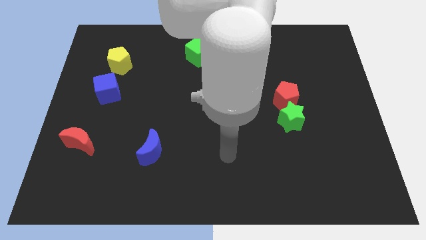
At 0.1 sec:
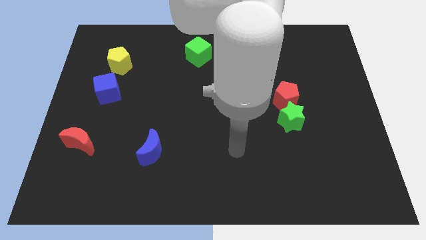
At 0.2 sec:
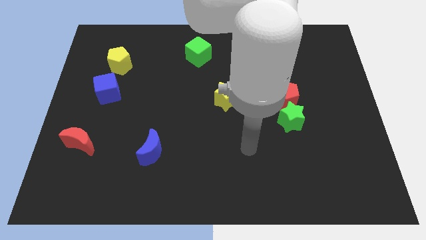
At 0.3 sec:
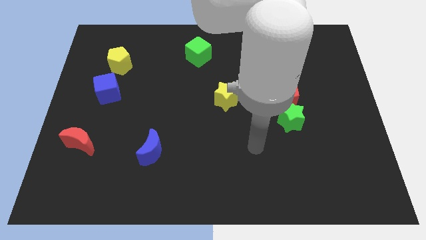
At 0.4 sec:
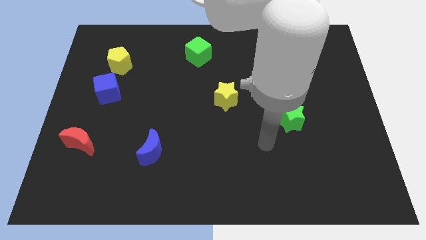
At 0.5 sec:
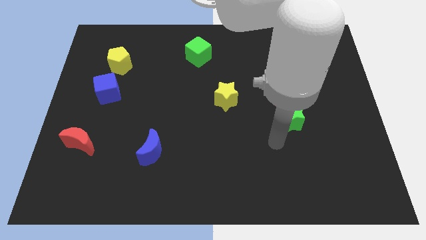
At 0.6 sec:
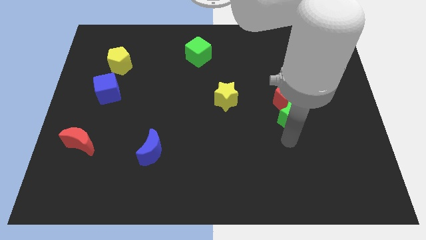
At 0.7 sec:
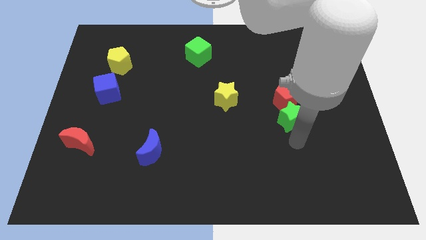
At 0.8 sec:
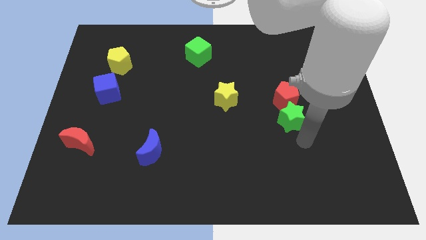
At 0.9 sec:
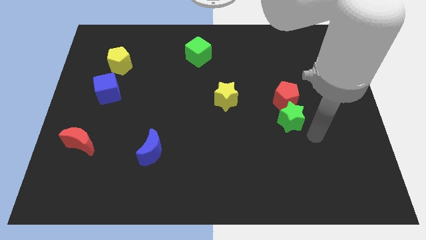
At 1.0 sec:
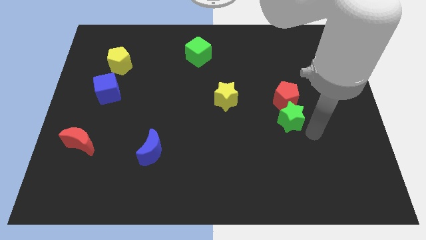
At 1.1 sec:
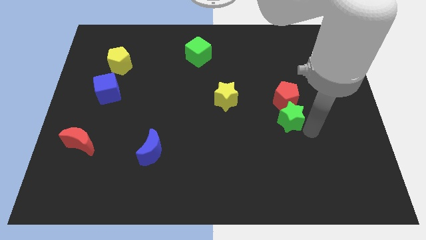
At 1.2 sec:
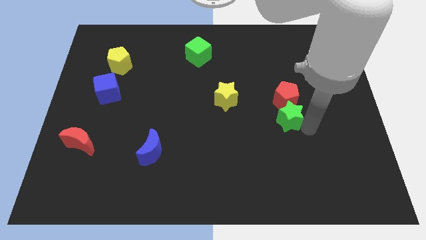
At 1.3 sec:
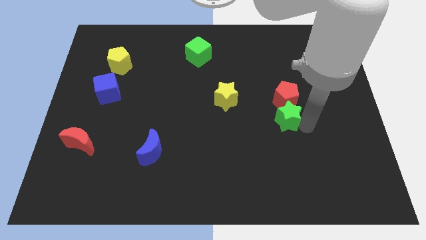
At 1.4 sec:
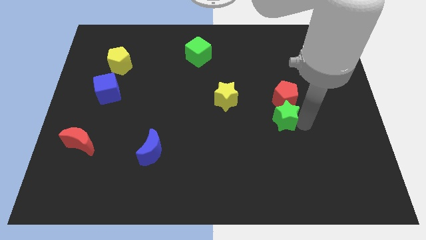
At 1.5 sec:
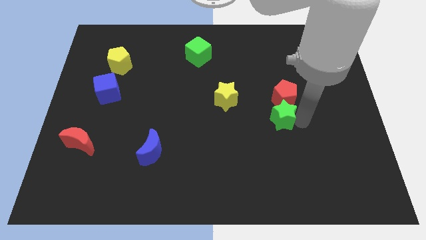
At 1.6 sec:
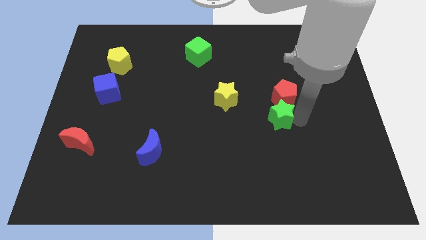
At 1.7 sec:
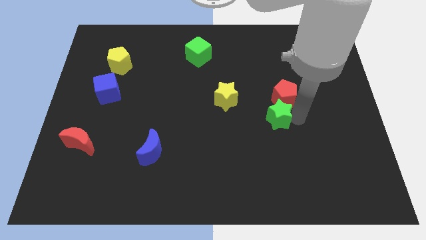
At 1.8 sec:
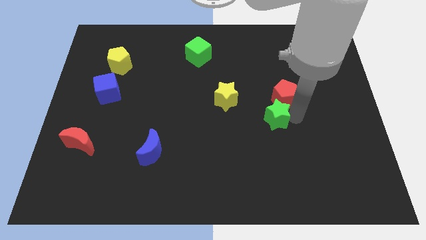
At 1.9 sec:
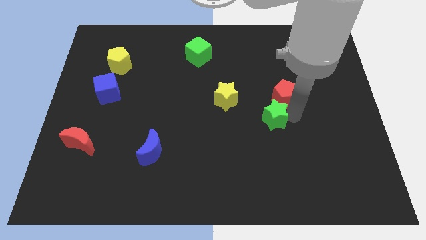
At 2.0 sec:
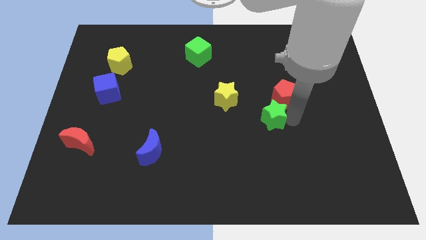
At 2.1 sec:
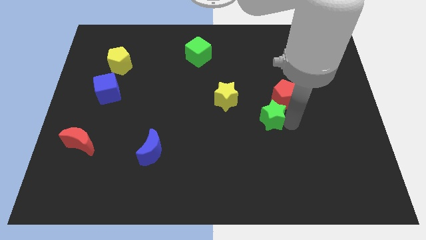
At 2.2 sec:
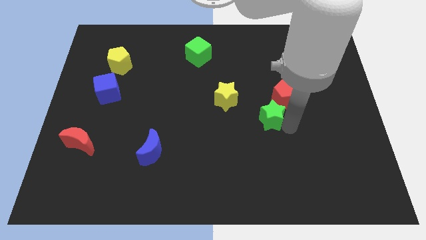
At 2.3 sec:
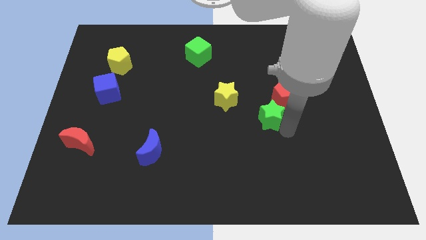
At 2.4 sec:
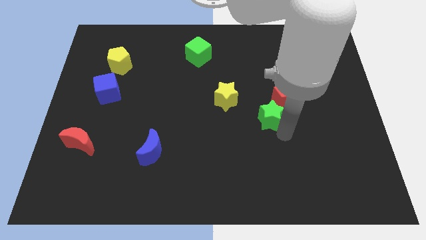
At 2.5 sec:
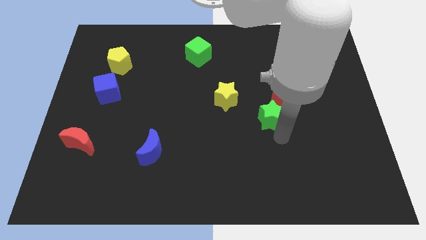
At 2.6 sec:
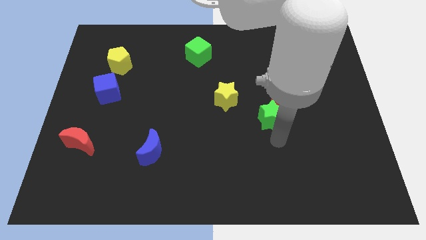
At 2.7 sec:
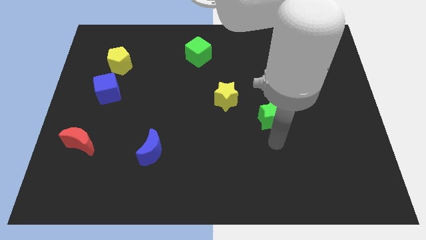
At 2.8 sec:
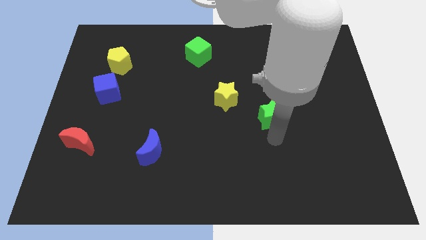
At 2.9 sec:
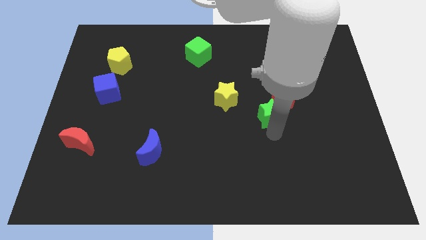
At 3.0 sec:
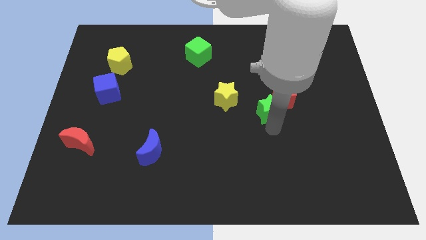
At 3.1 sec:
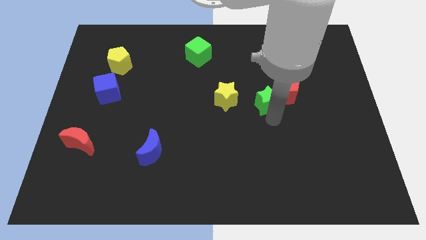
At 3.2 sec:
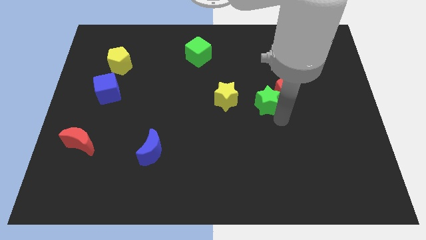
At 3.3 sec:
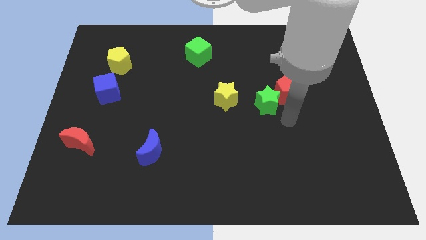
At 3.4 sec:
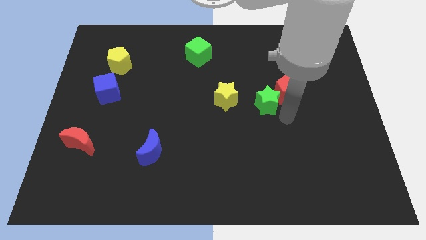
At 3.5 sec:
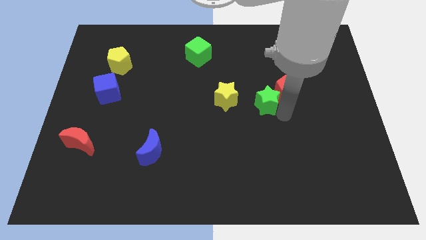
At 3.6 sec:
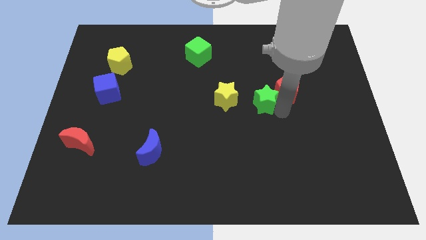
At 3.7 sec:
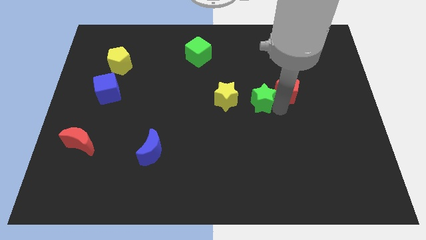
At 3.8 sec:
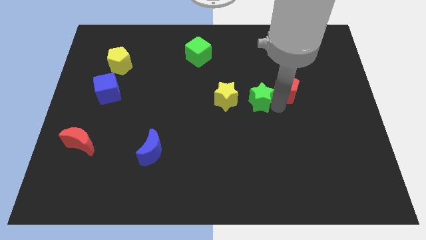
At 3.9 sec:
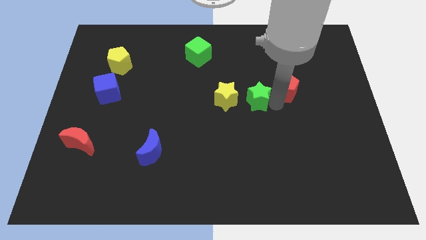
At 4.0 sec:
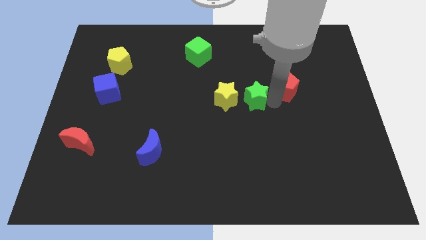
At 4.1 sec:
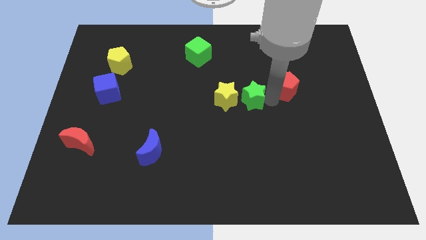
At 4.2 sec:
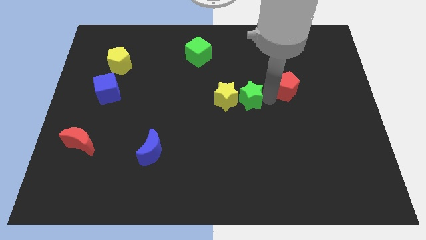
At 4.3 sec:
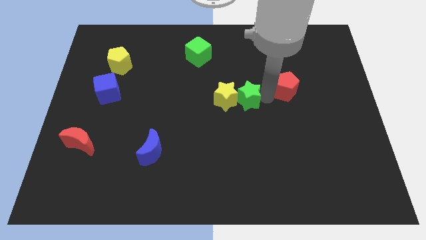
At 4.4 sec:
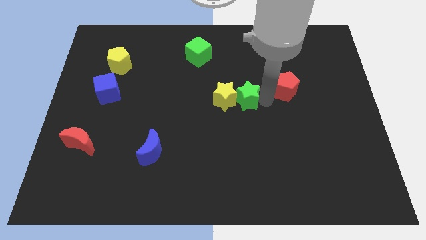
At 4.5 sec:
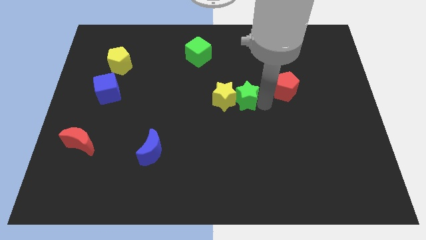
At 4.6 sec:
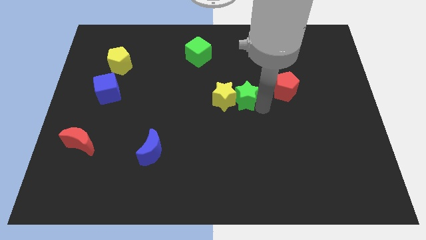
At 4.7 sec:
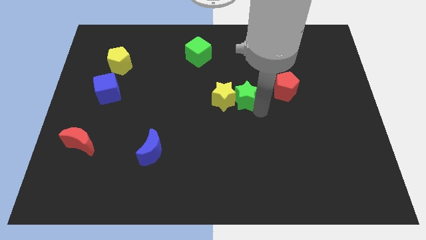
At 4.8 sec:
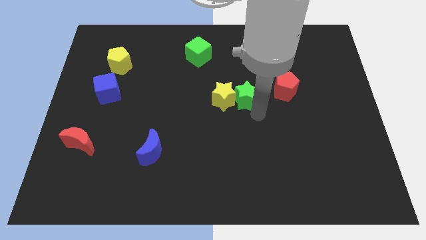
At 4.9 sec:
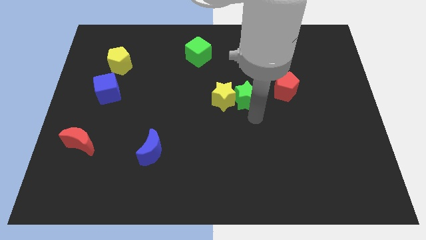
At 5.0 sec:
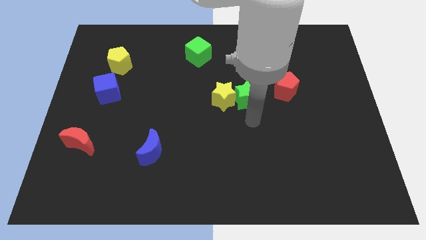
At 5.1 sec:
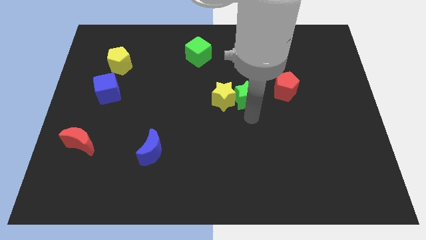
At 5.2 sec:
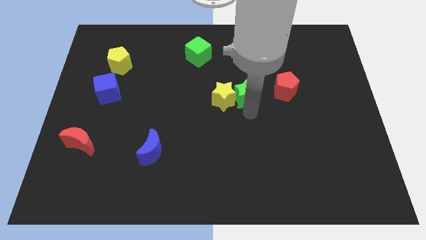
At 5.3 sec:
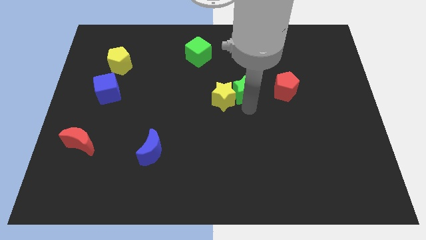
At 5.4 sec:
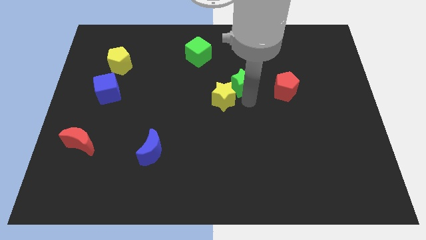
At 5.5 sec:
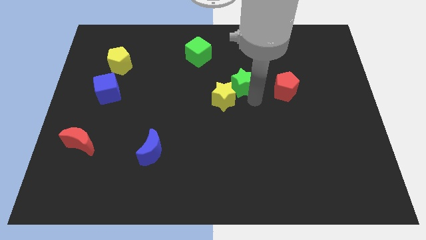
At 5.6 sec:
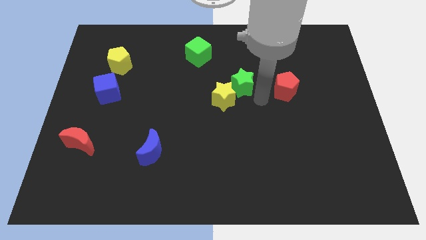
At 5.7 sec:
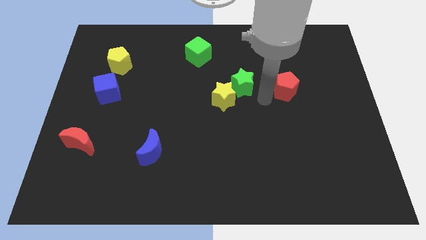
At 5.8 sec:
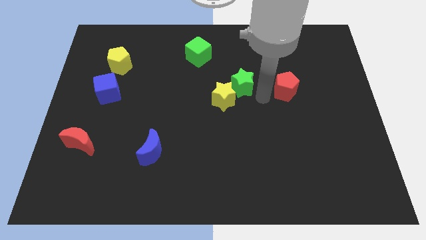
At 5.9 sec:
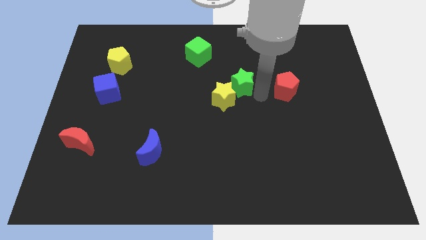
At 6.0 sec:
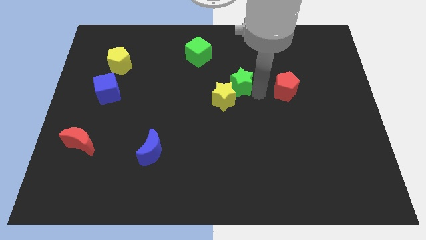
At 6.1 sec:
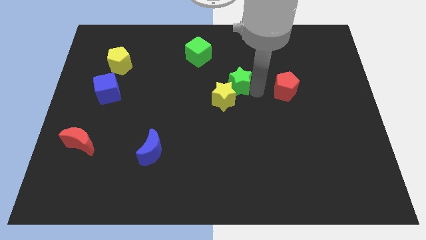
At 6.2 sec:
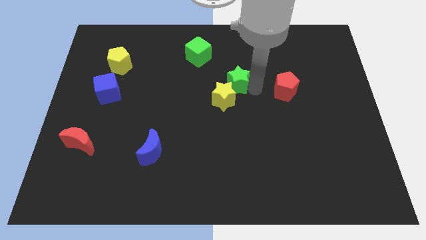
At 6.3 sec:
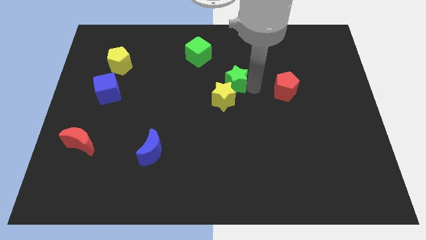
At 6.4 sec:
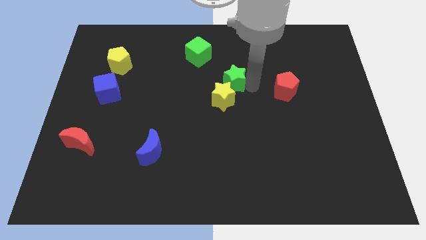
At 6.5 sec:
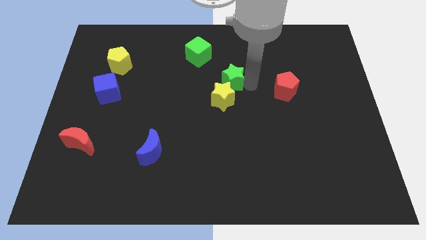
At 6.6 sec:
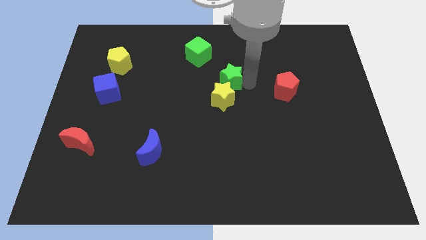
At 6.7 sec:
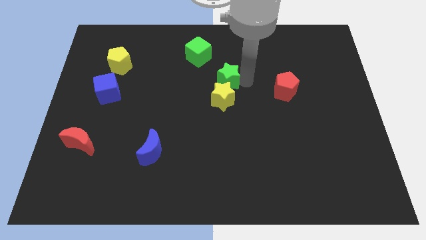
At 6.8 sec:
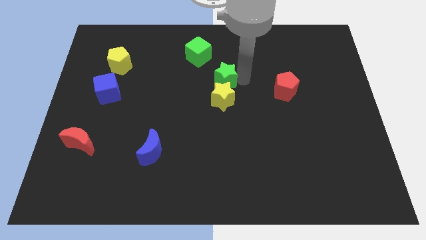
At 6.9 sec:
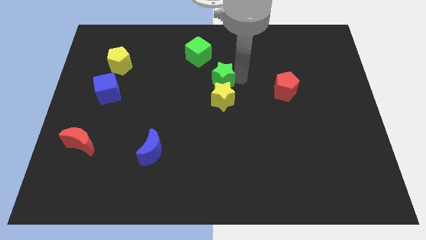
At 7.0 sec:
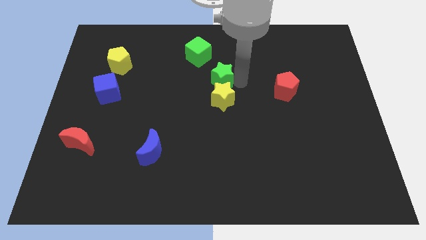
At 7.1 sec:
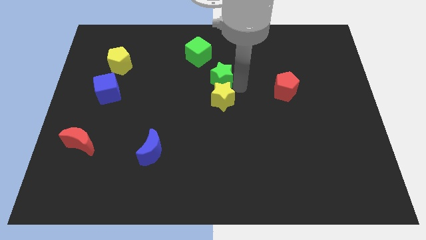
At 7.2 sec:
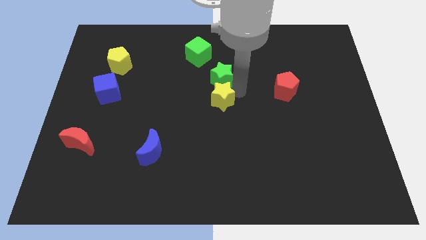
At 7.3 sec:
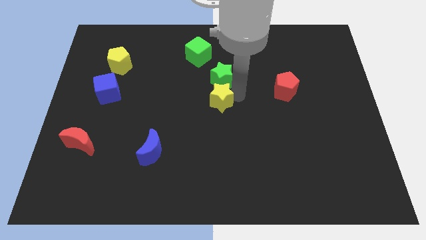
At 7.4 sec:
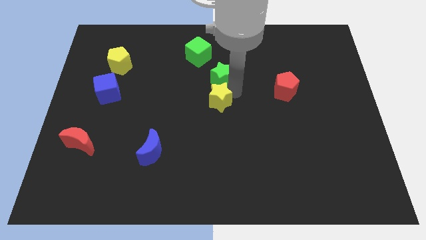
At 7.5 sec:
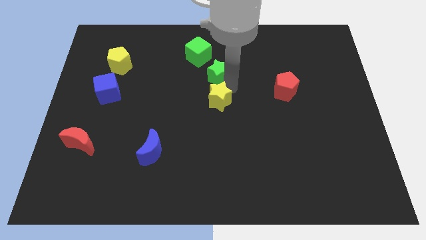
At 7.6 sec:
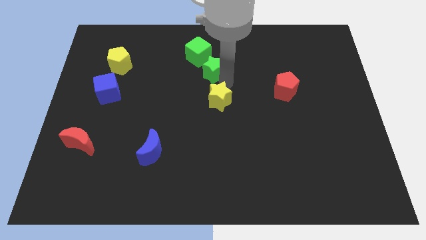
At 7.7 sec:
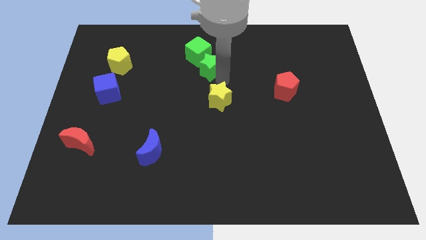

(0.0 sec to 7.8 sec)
slide the green star next to the green cube
